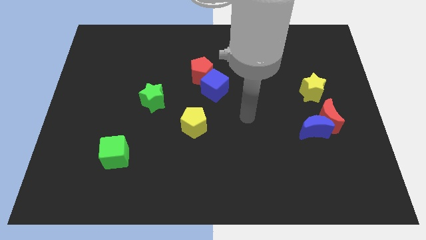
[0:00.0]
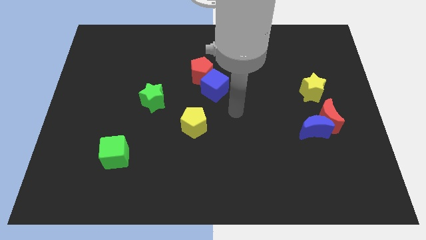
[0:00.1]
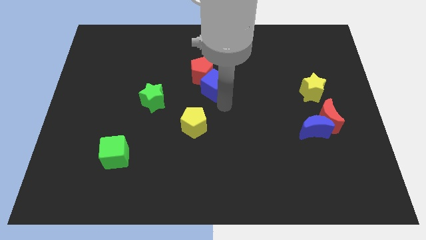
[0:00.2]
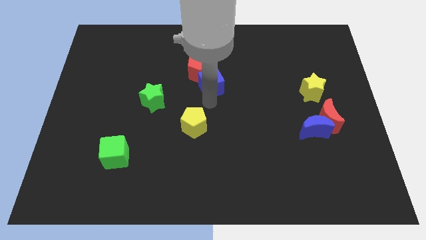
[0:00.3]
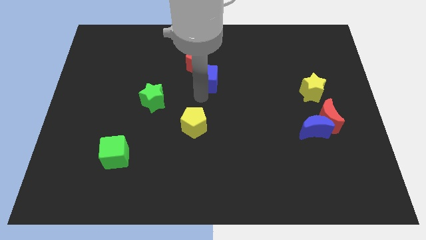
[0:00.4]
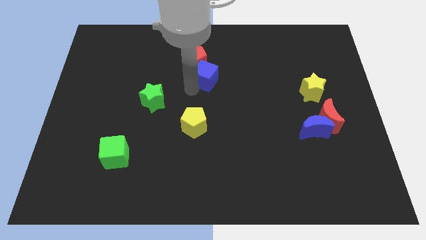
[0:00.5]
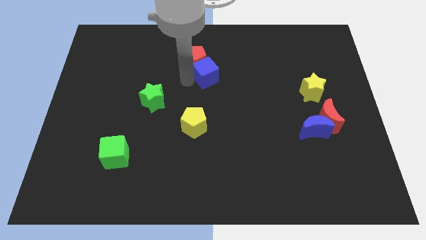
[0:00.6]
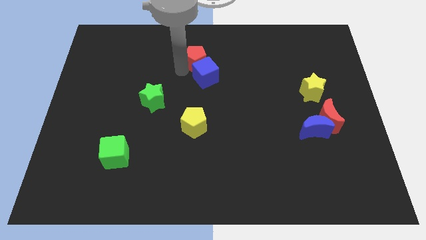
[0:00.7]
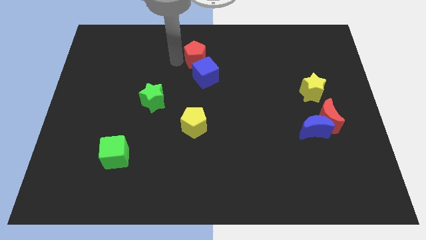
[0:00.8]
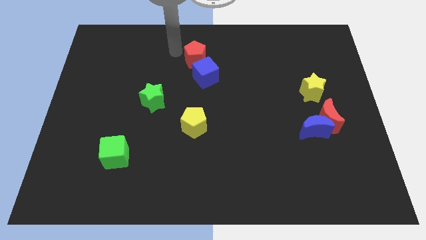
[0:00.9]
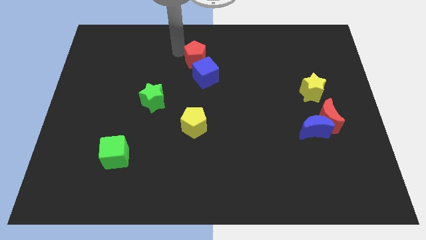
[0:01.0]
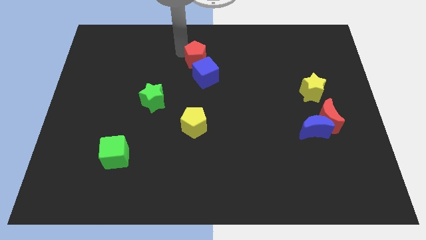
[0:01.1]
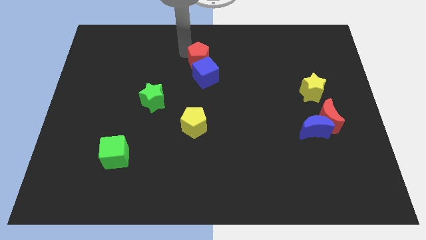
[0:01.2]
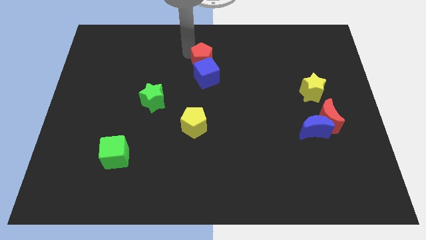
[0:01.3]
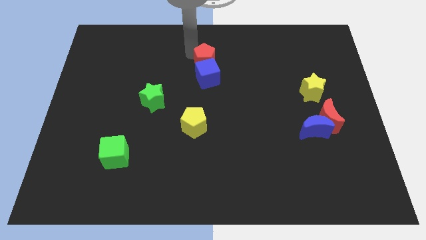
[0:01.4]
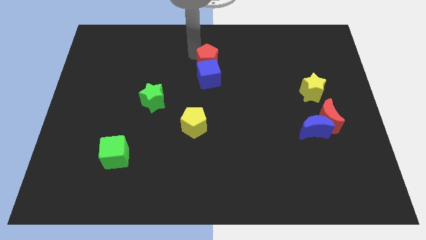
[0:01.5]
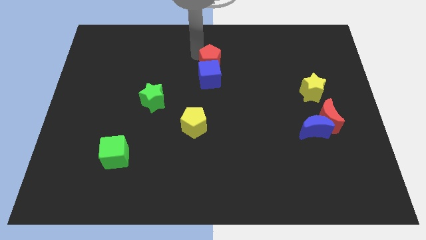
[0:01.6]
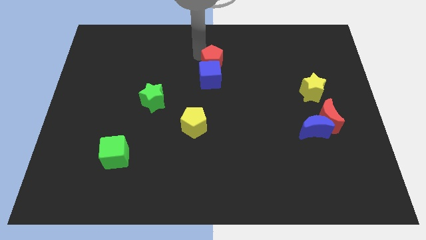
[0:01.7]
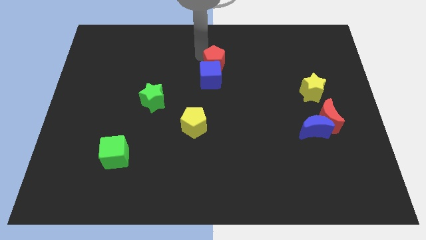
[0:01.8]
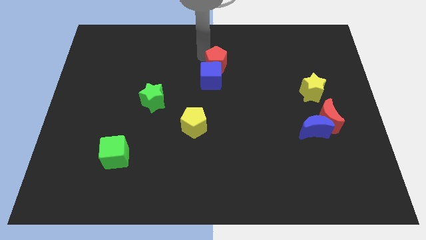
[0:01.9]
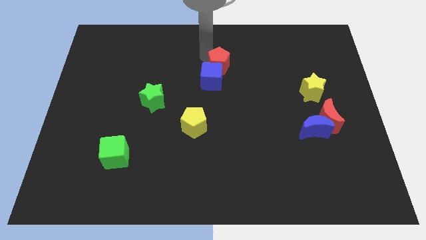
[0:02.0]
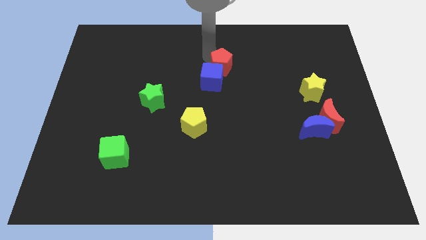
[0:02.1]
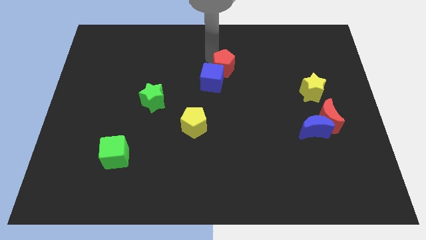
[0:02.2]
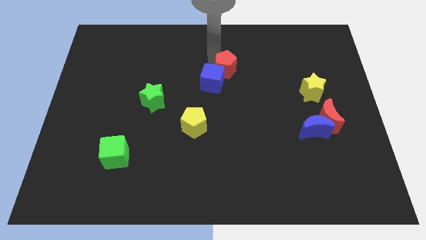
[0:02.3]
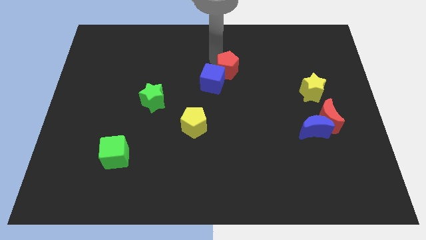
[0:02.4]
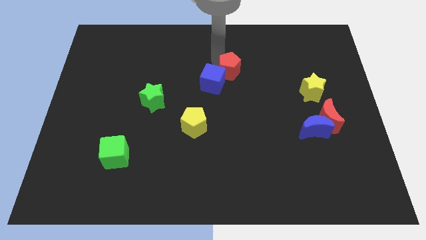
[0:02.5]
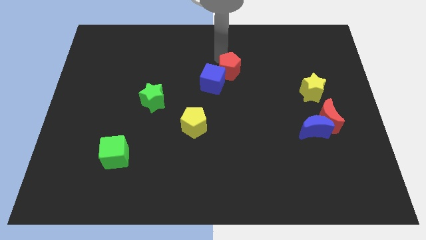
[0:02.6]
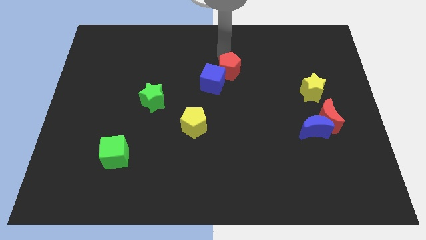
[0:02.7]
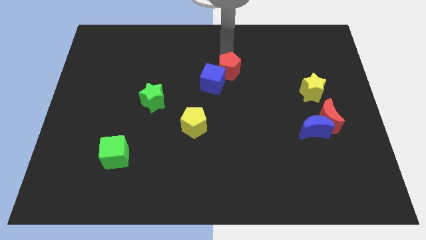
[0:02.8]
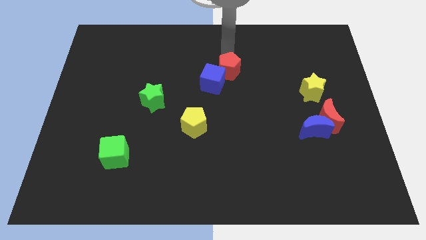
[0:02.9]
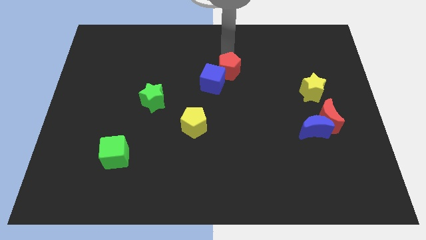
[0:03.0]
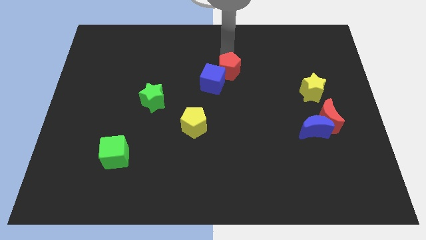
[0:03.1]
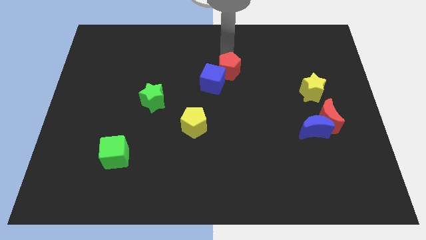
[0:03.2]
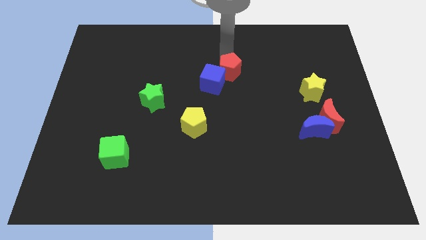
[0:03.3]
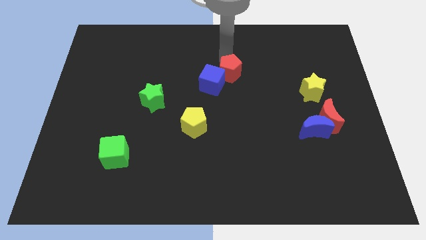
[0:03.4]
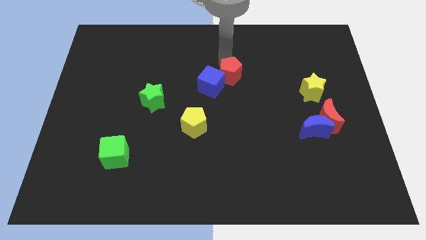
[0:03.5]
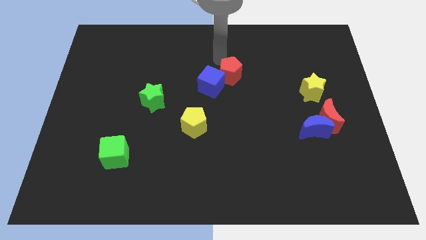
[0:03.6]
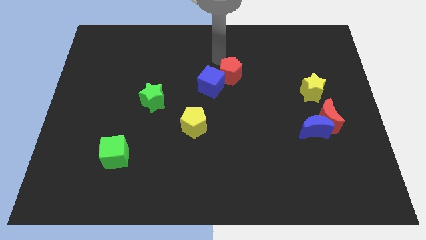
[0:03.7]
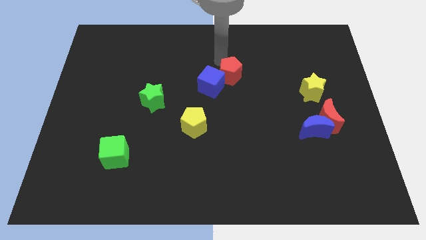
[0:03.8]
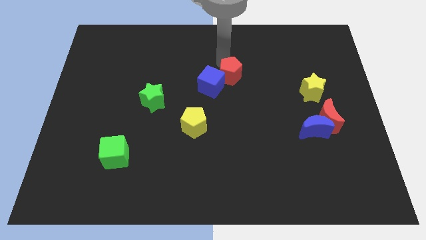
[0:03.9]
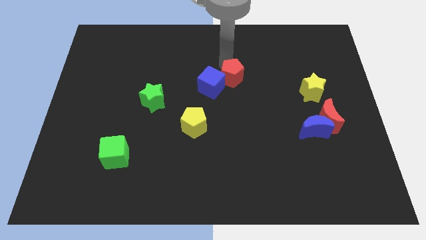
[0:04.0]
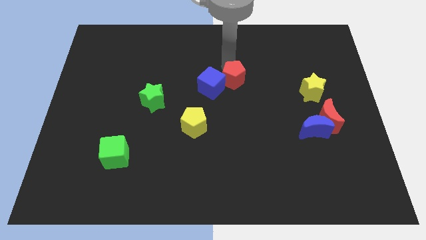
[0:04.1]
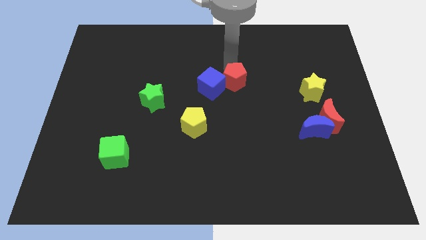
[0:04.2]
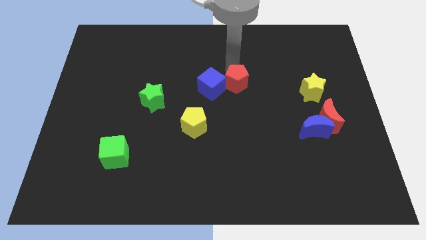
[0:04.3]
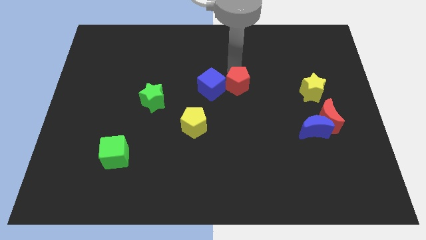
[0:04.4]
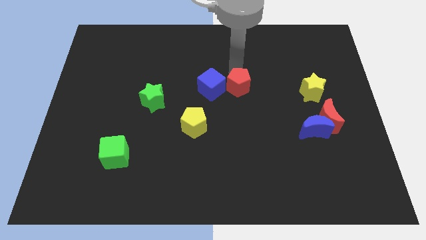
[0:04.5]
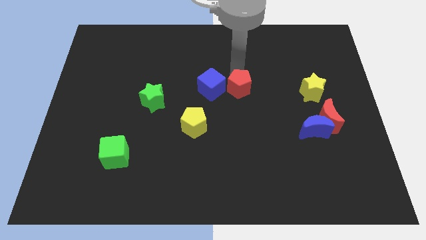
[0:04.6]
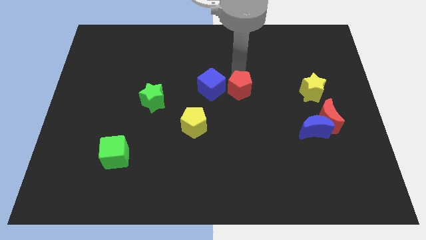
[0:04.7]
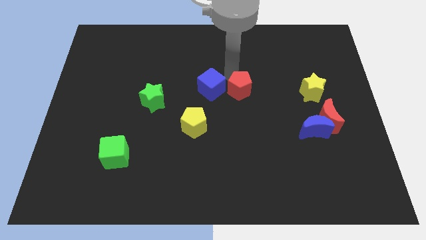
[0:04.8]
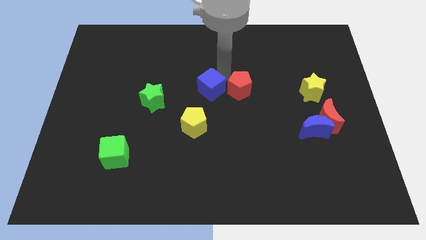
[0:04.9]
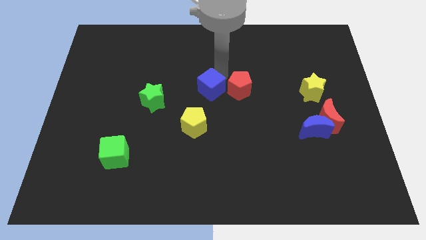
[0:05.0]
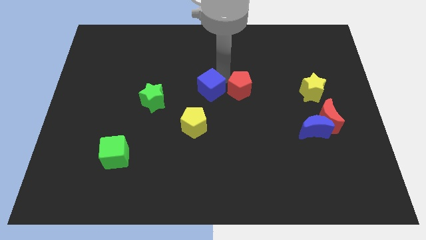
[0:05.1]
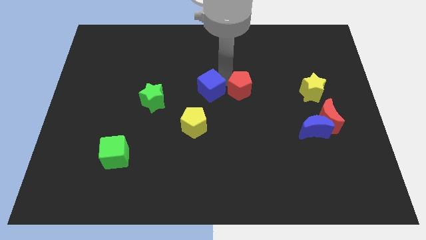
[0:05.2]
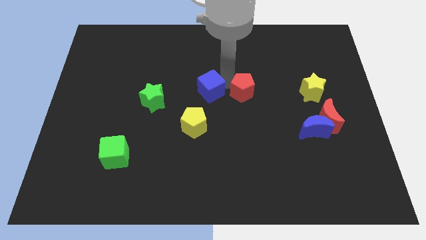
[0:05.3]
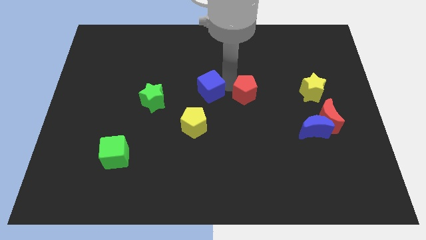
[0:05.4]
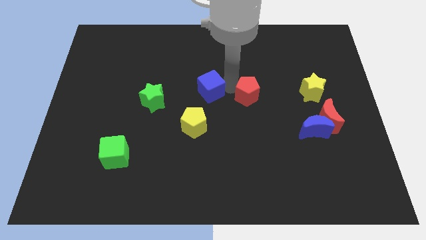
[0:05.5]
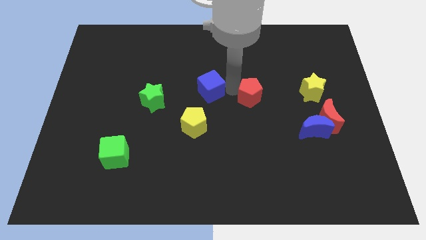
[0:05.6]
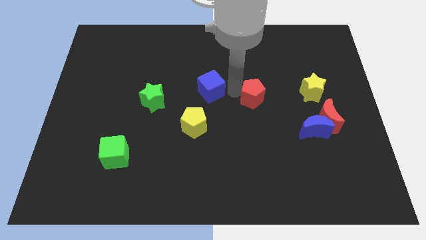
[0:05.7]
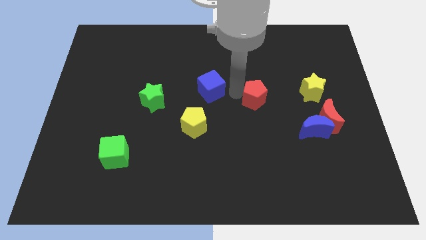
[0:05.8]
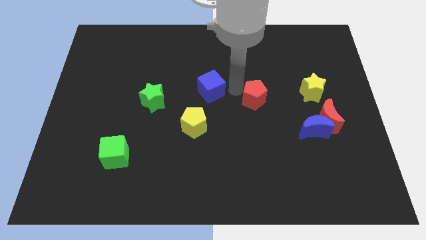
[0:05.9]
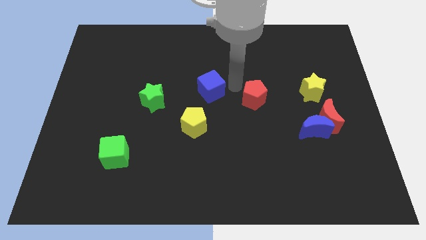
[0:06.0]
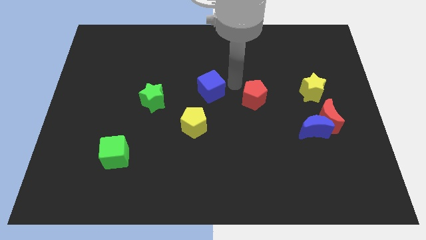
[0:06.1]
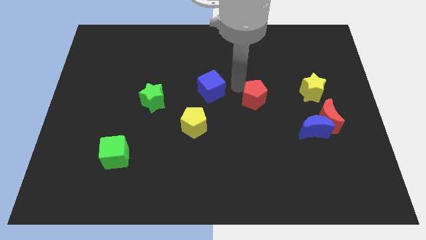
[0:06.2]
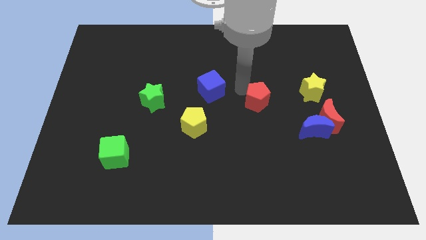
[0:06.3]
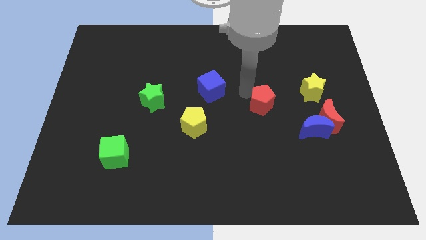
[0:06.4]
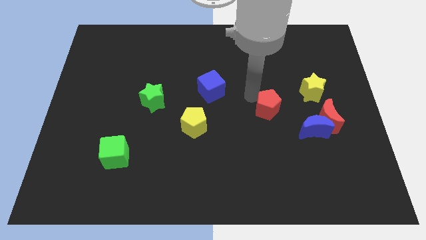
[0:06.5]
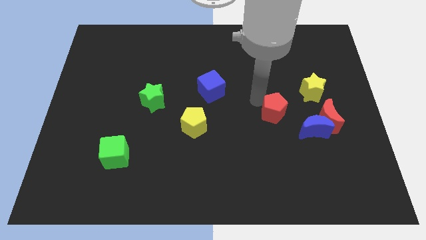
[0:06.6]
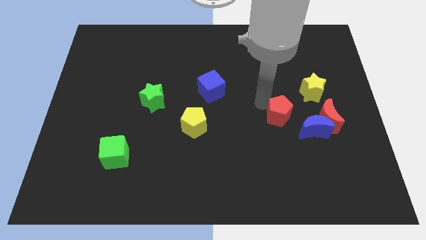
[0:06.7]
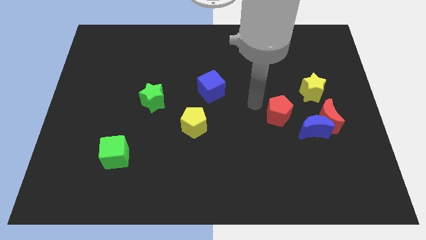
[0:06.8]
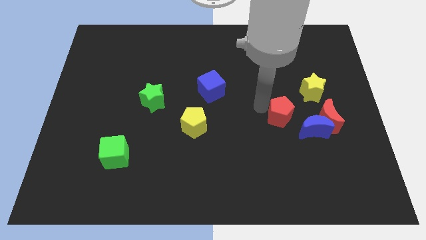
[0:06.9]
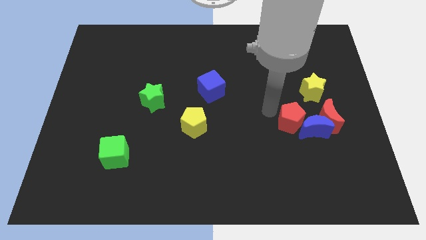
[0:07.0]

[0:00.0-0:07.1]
push the red pentagon close to the blue moon
